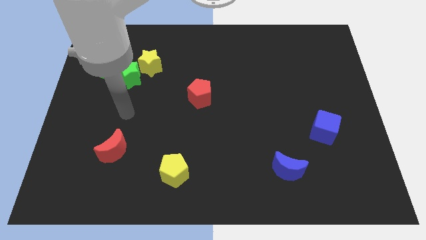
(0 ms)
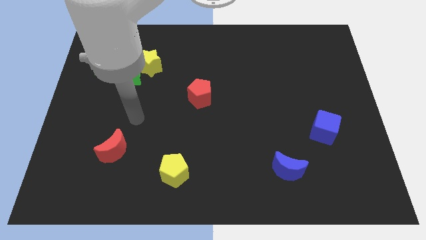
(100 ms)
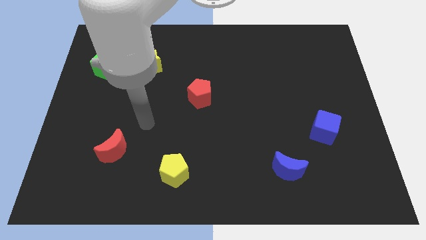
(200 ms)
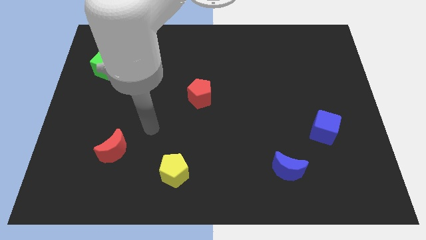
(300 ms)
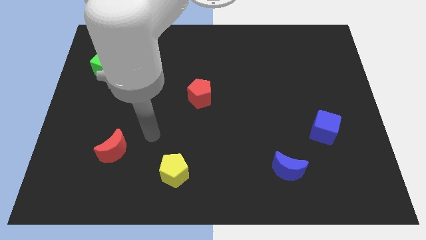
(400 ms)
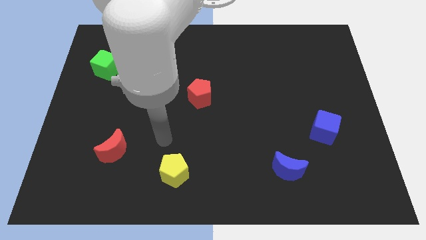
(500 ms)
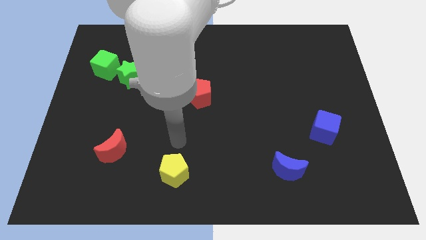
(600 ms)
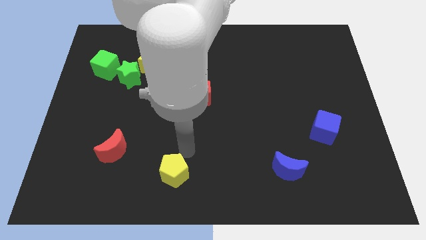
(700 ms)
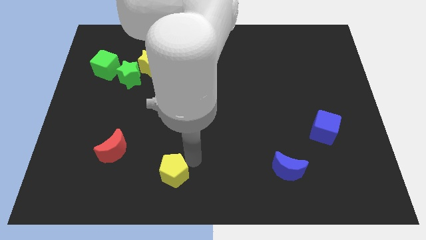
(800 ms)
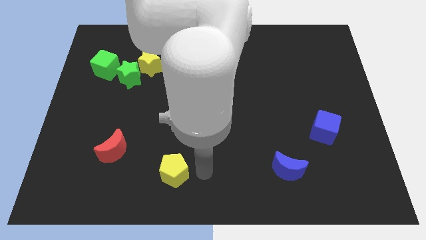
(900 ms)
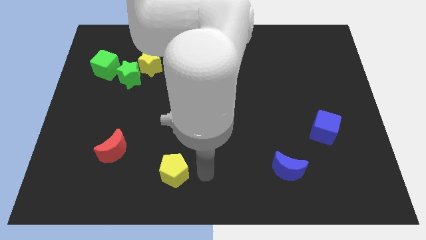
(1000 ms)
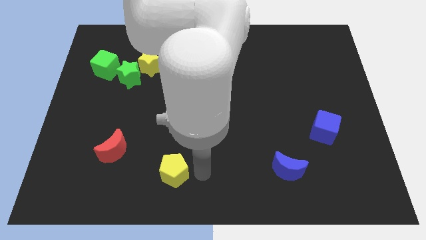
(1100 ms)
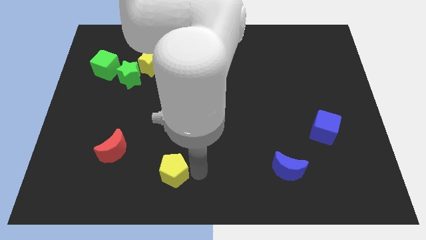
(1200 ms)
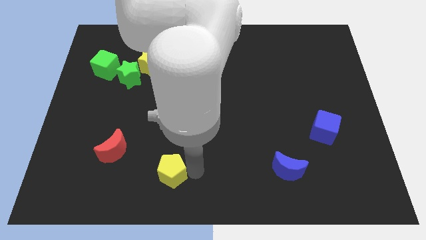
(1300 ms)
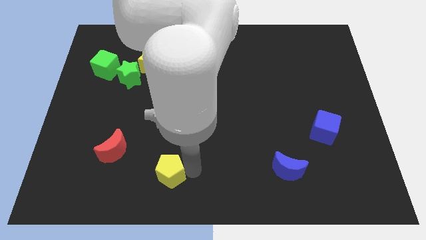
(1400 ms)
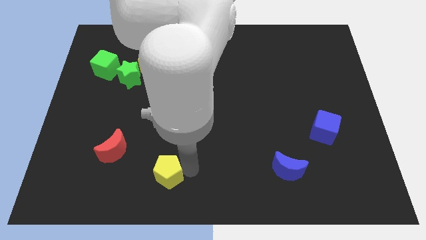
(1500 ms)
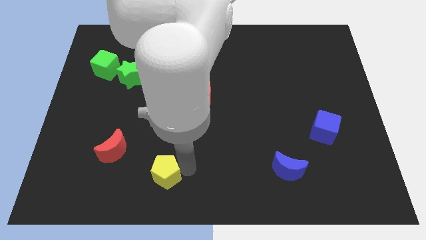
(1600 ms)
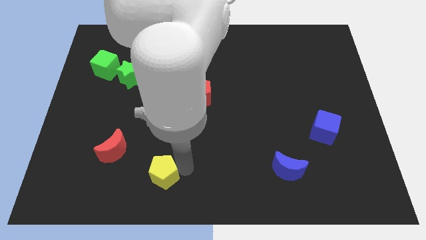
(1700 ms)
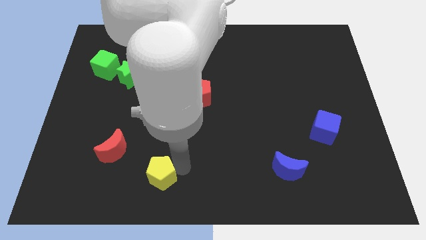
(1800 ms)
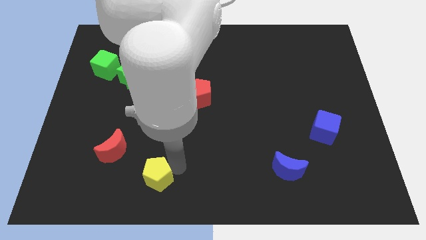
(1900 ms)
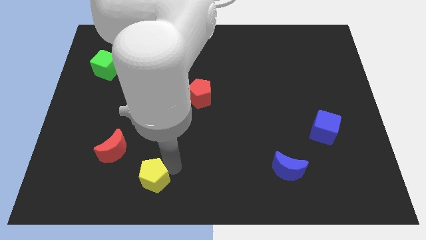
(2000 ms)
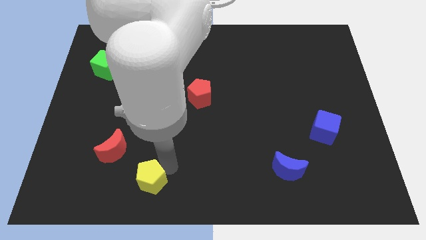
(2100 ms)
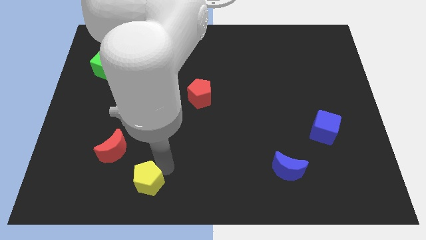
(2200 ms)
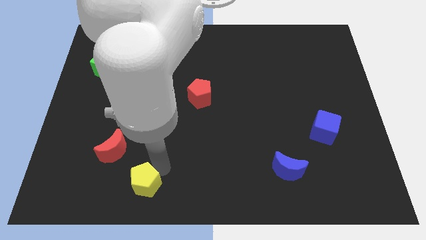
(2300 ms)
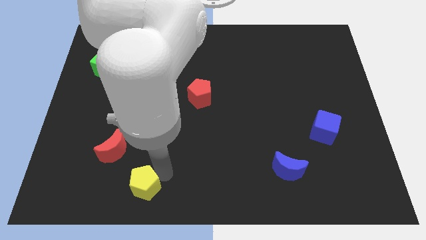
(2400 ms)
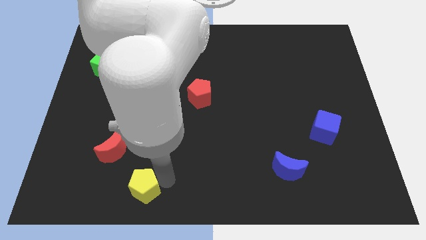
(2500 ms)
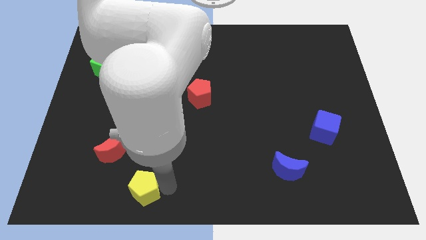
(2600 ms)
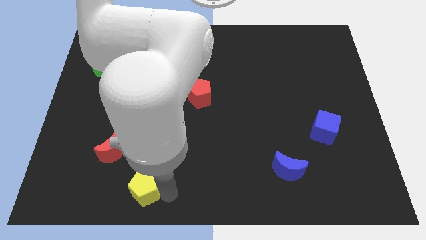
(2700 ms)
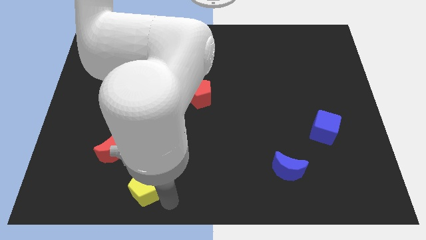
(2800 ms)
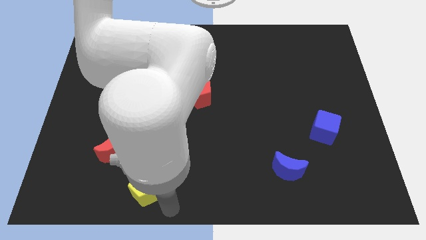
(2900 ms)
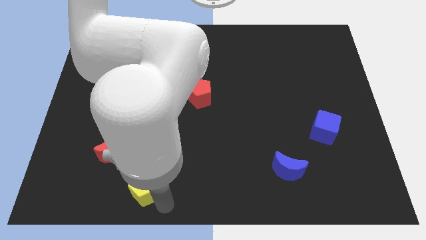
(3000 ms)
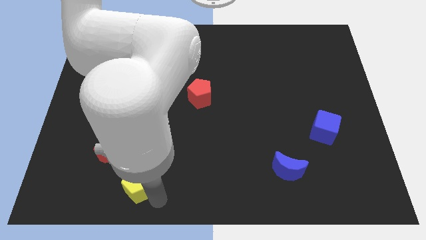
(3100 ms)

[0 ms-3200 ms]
slightly push the yellow pentagon left

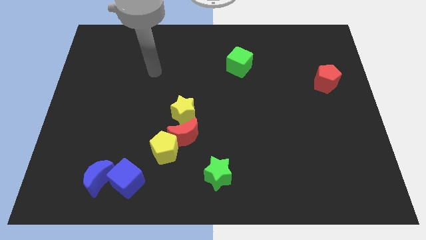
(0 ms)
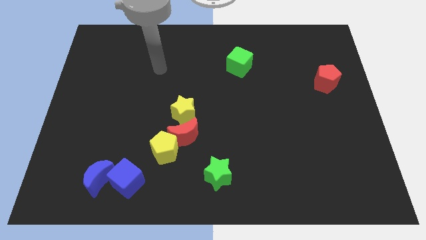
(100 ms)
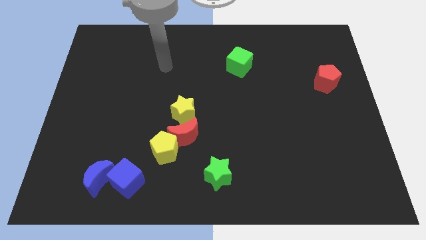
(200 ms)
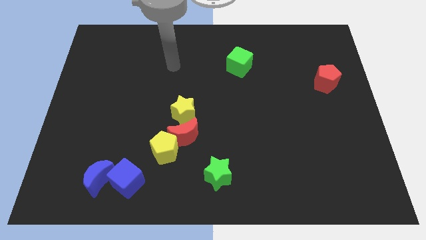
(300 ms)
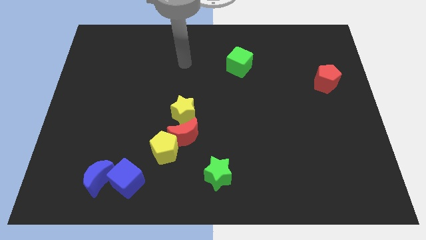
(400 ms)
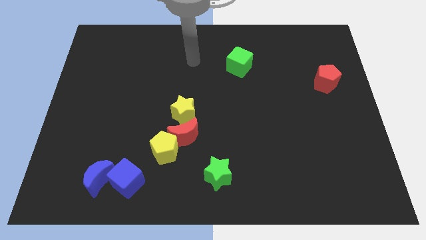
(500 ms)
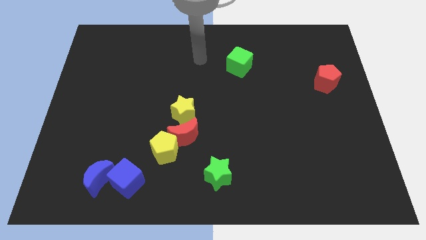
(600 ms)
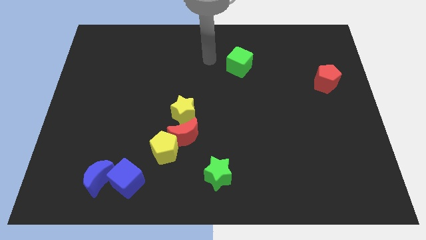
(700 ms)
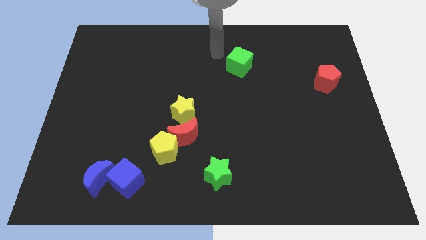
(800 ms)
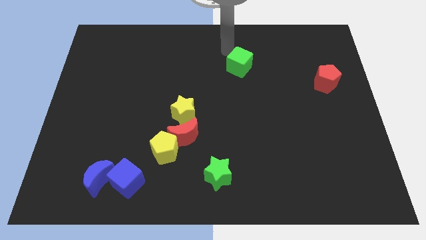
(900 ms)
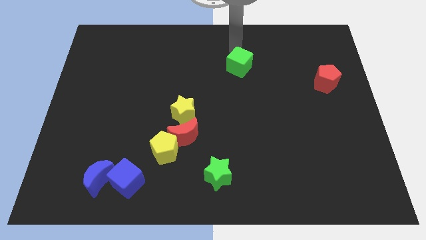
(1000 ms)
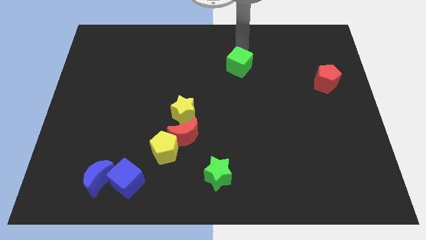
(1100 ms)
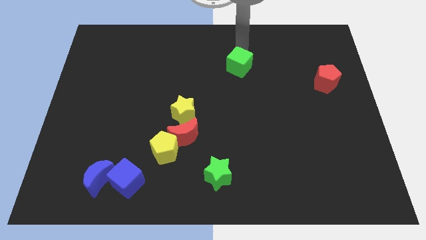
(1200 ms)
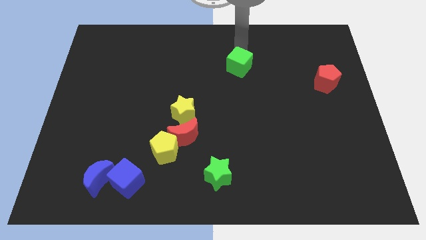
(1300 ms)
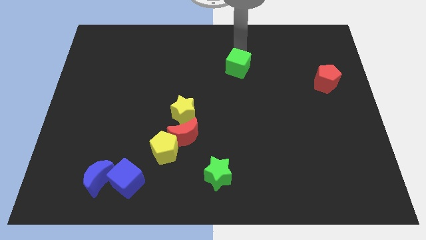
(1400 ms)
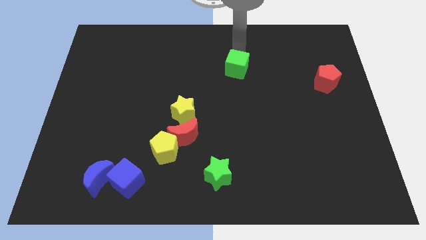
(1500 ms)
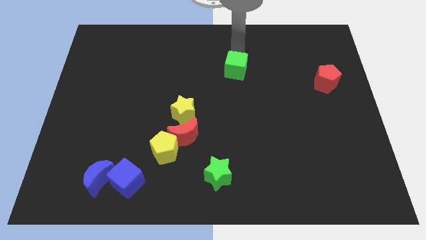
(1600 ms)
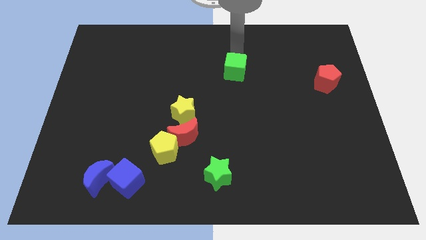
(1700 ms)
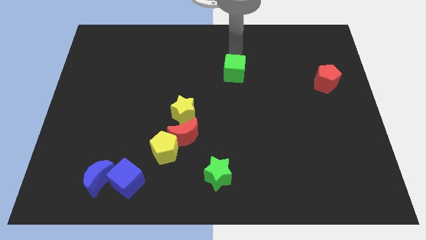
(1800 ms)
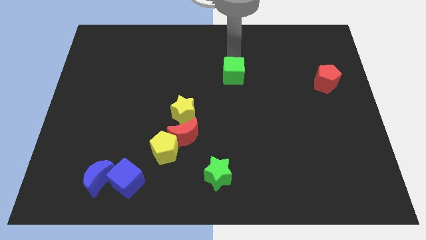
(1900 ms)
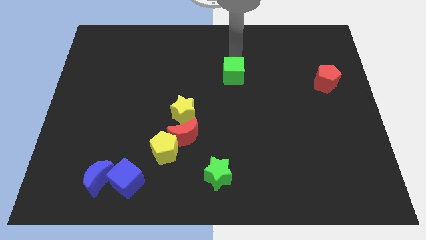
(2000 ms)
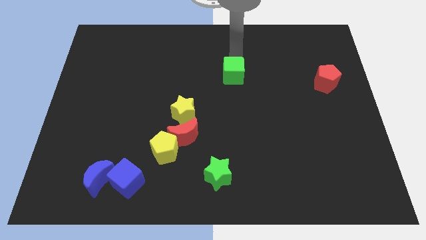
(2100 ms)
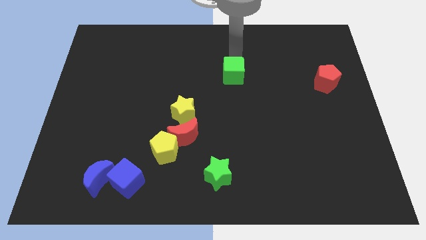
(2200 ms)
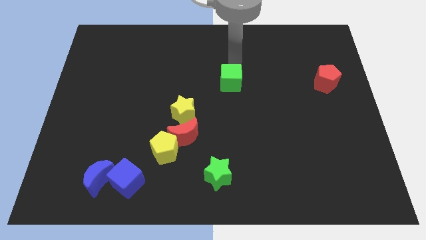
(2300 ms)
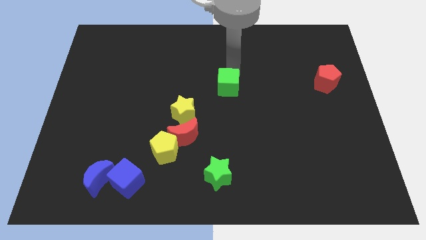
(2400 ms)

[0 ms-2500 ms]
slide the green cube a bit downwards

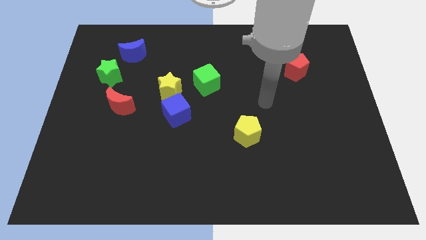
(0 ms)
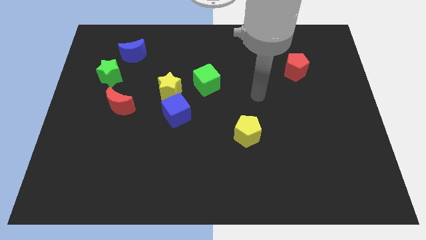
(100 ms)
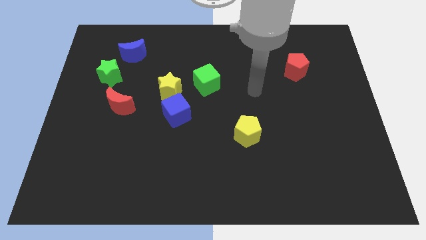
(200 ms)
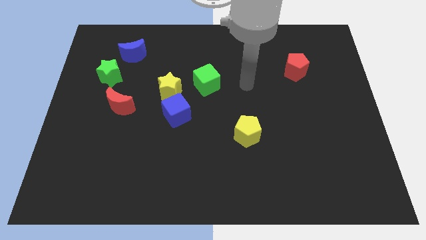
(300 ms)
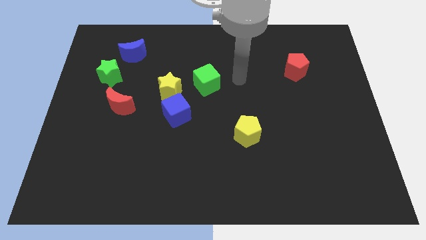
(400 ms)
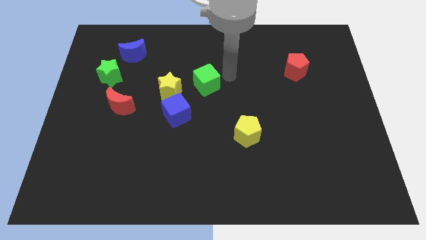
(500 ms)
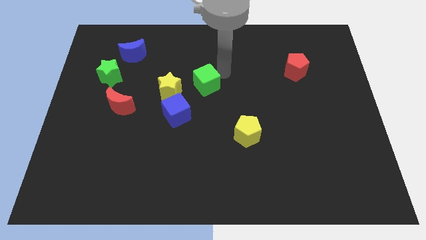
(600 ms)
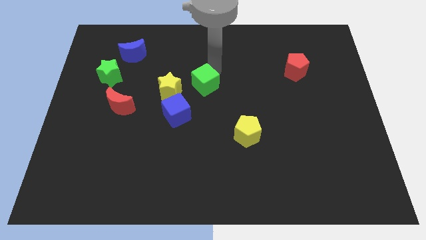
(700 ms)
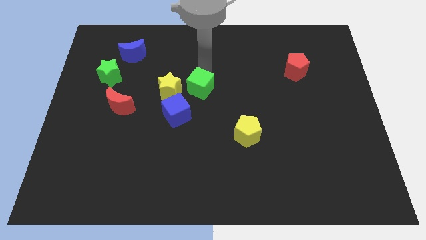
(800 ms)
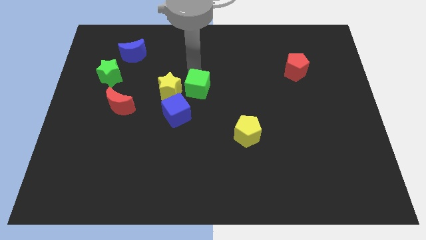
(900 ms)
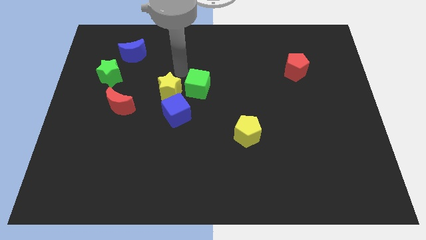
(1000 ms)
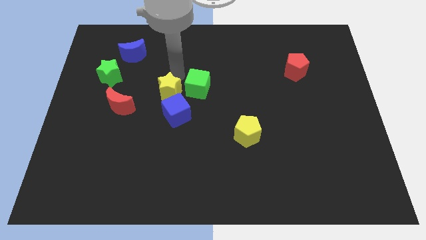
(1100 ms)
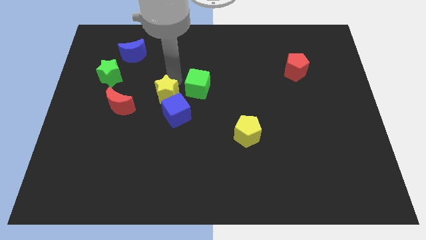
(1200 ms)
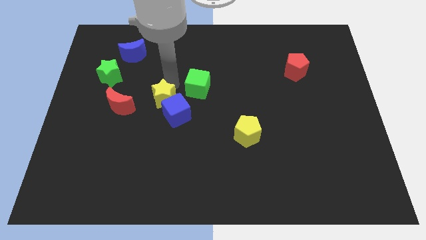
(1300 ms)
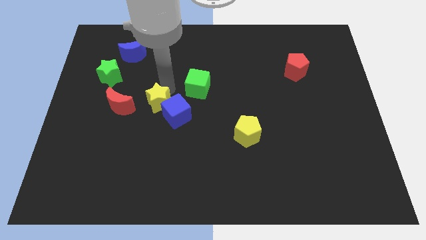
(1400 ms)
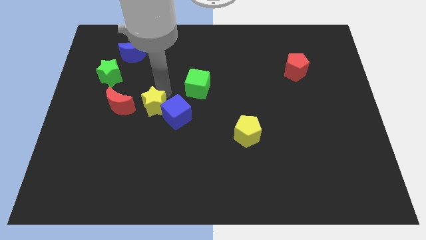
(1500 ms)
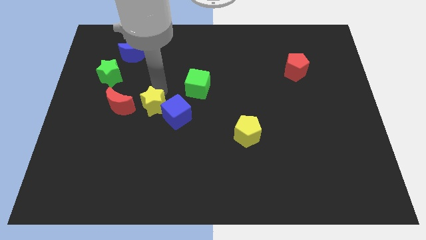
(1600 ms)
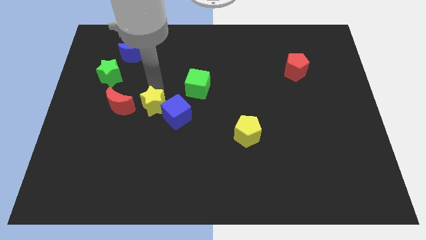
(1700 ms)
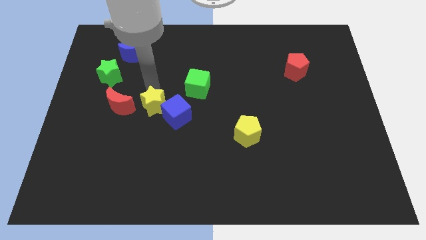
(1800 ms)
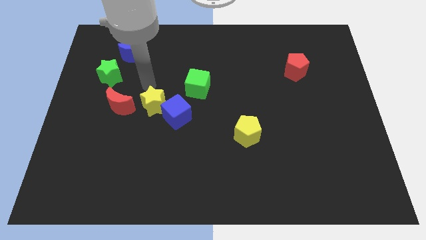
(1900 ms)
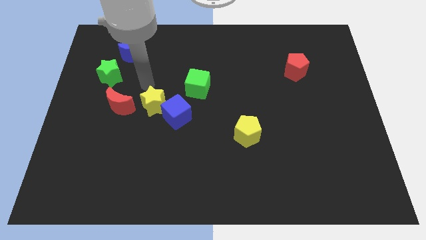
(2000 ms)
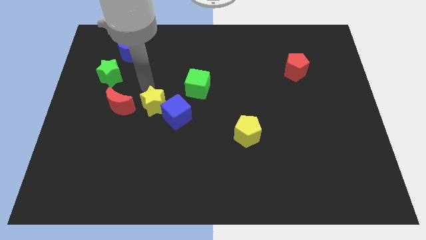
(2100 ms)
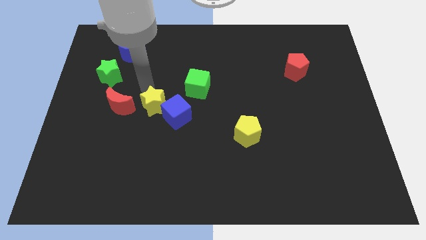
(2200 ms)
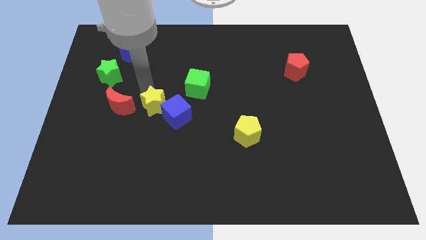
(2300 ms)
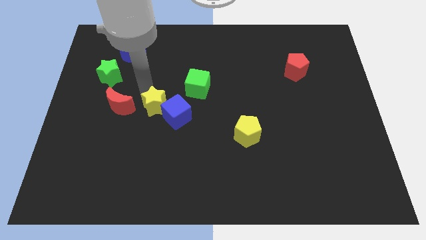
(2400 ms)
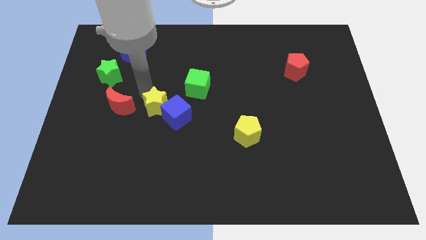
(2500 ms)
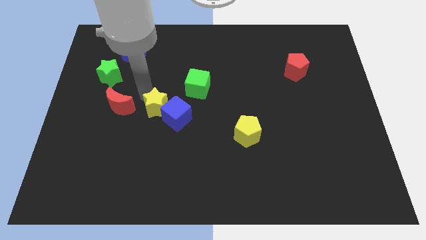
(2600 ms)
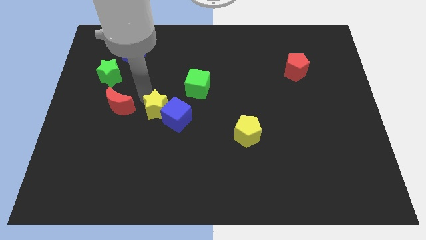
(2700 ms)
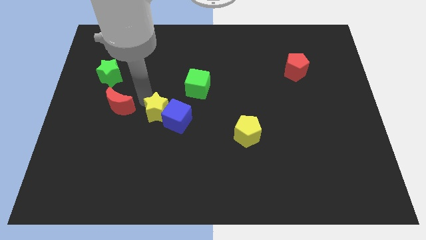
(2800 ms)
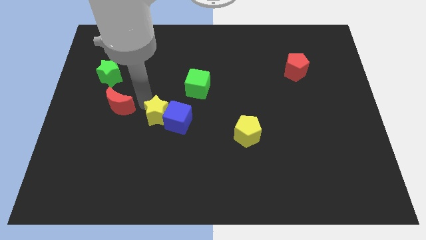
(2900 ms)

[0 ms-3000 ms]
move the yellow star down somewhat

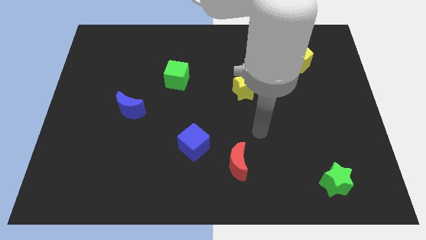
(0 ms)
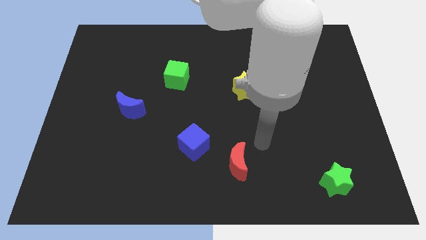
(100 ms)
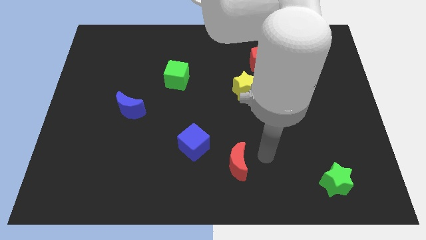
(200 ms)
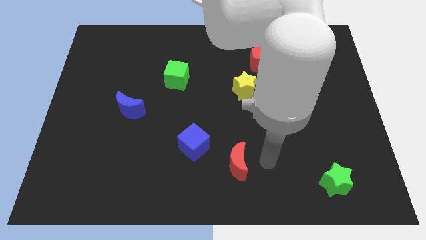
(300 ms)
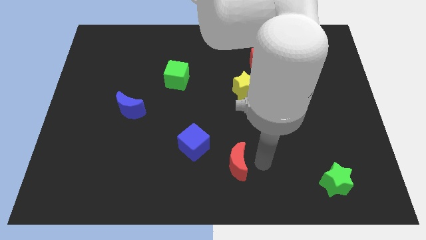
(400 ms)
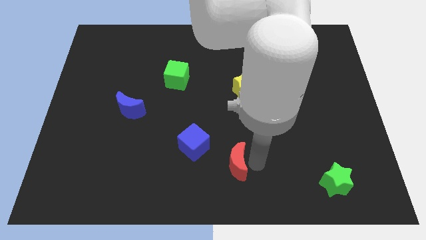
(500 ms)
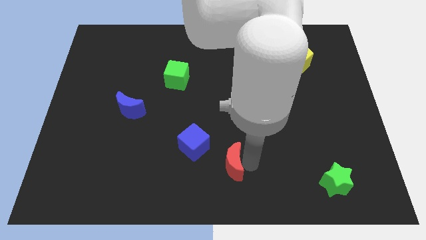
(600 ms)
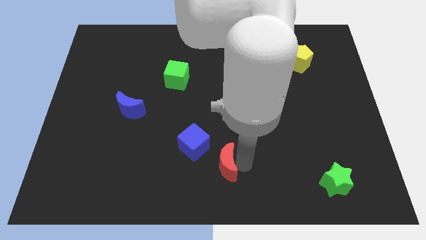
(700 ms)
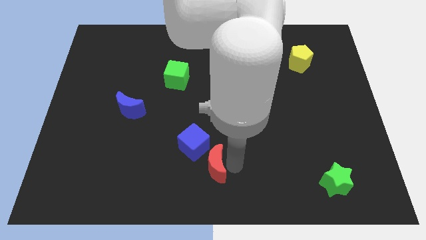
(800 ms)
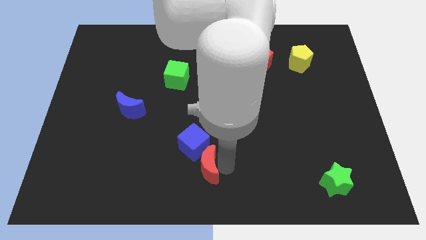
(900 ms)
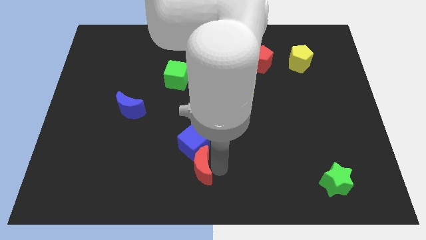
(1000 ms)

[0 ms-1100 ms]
move the red moon slightly to the left
